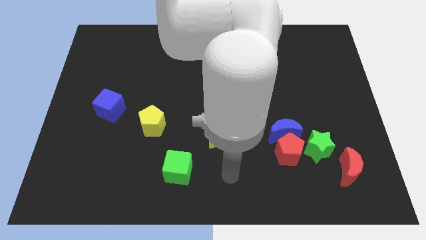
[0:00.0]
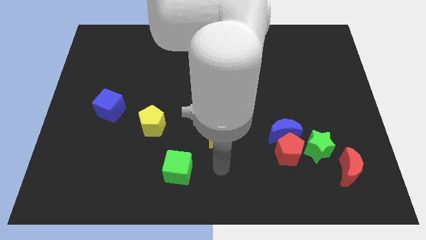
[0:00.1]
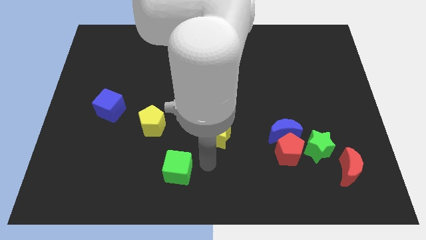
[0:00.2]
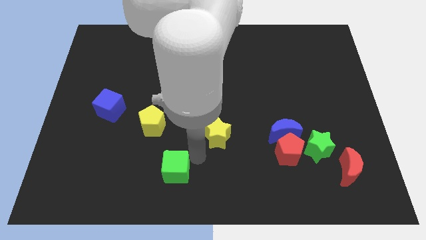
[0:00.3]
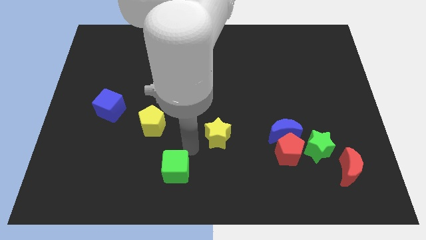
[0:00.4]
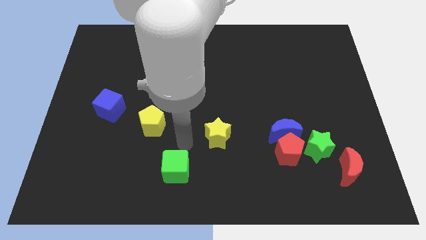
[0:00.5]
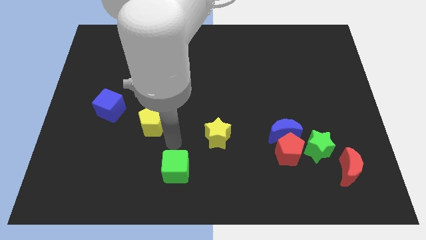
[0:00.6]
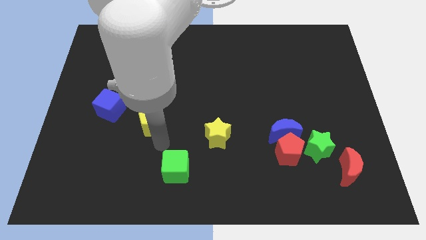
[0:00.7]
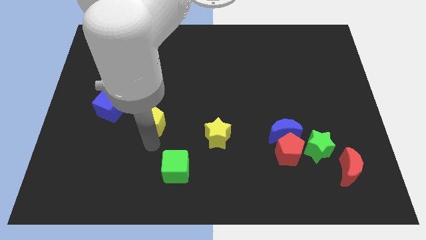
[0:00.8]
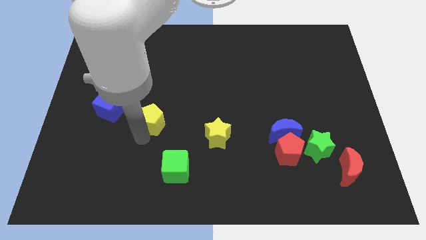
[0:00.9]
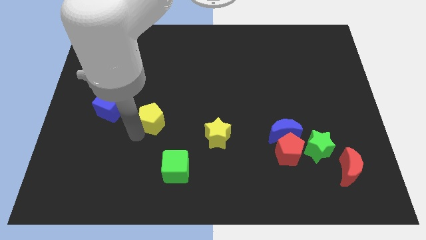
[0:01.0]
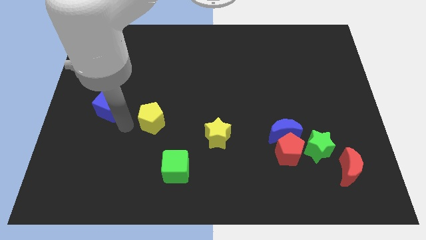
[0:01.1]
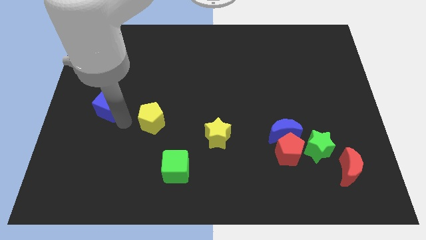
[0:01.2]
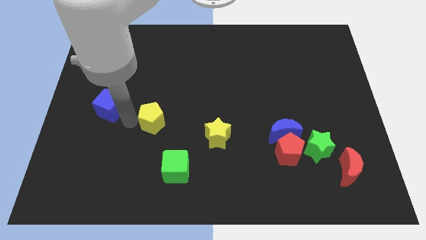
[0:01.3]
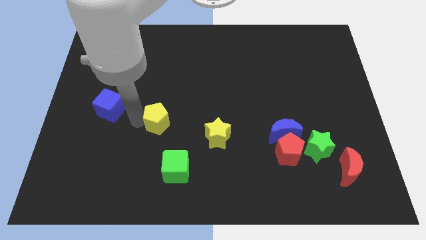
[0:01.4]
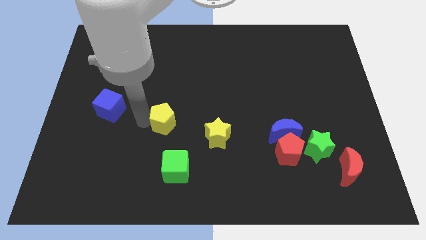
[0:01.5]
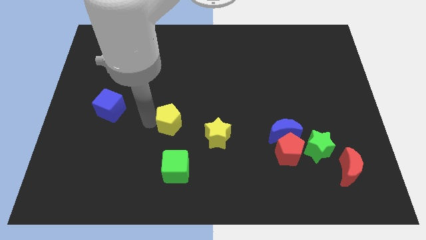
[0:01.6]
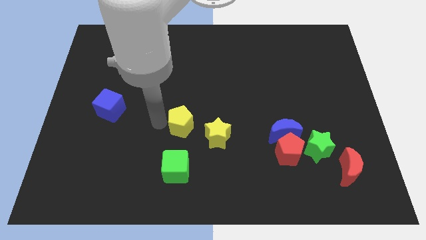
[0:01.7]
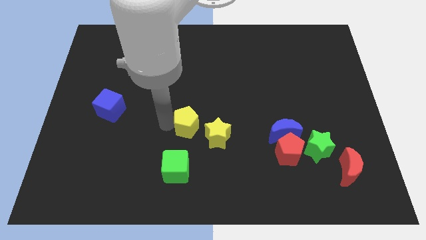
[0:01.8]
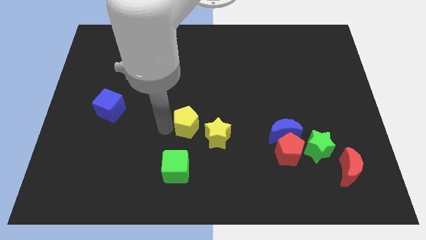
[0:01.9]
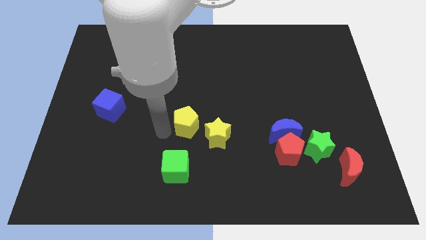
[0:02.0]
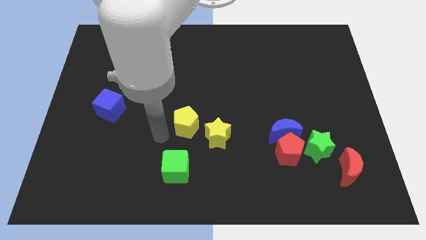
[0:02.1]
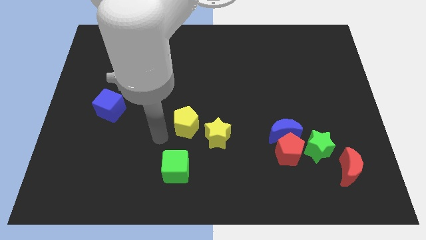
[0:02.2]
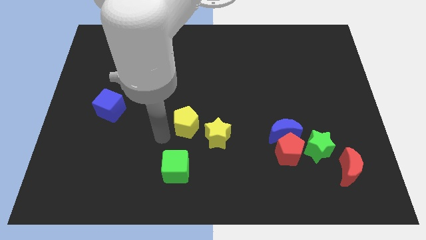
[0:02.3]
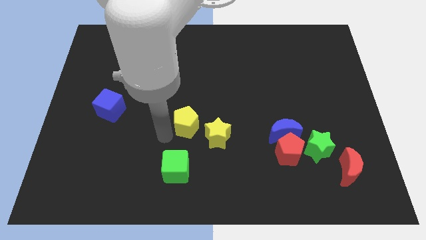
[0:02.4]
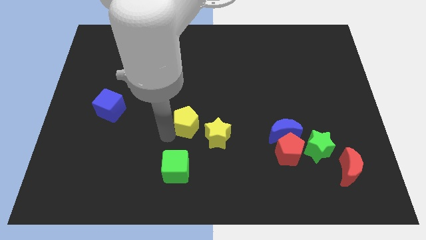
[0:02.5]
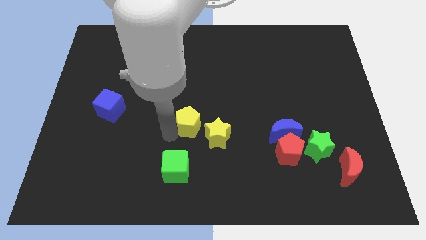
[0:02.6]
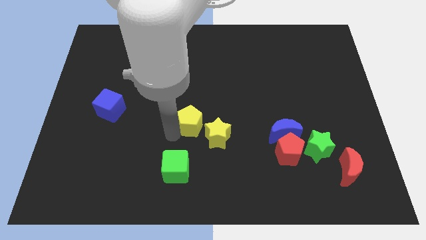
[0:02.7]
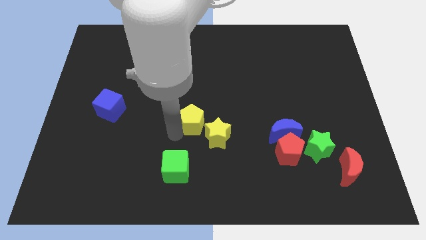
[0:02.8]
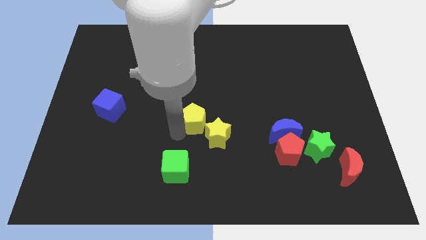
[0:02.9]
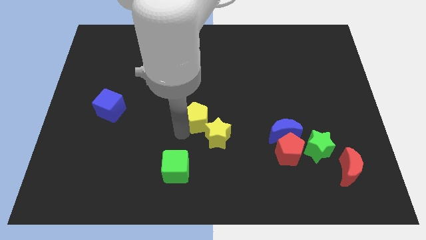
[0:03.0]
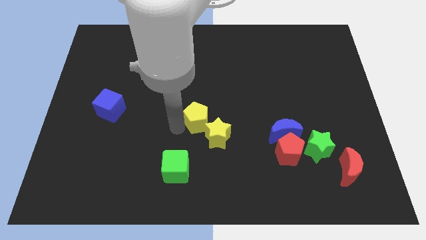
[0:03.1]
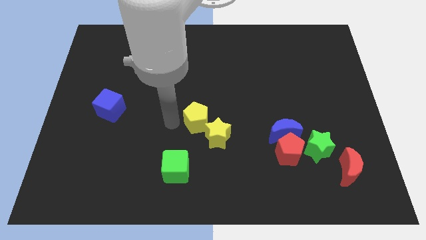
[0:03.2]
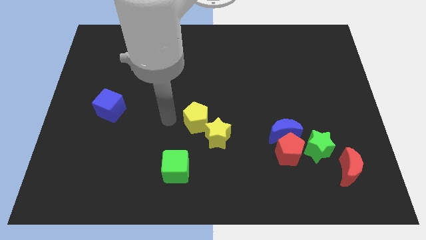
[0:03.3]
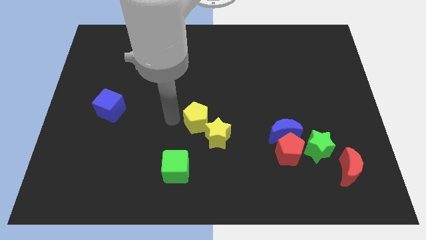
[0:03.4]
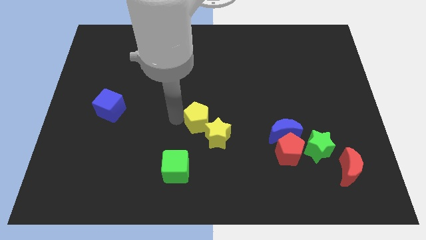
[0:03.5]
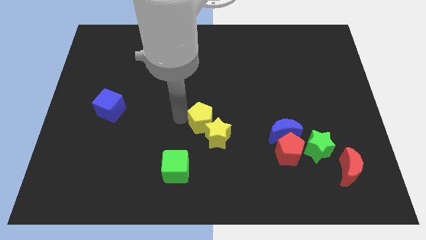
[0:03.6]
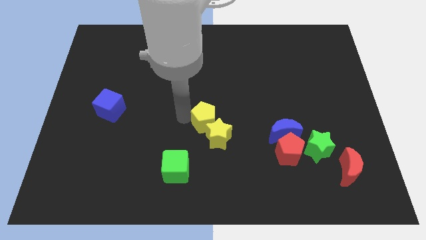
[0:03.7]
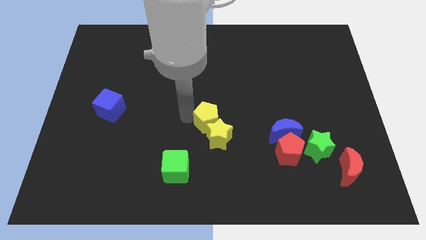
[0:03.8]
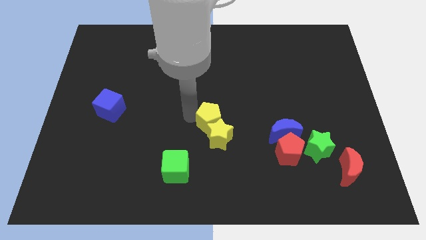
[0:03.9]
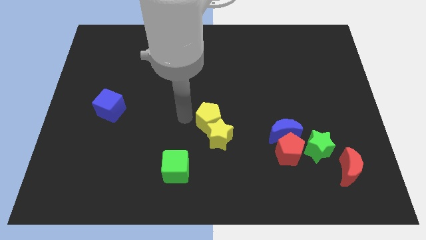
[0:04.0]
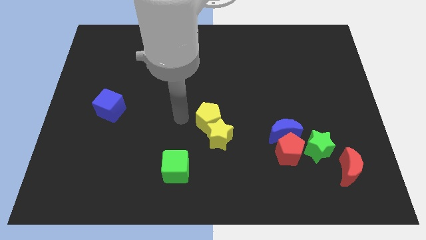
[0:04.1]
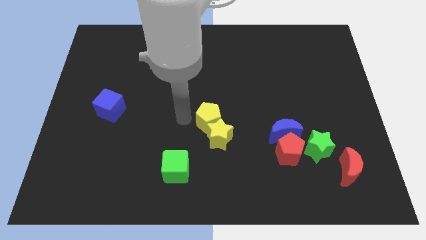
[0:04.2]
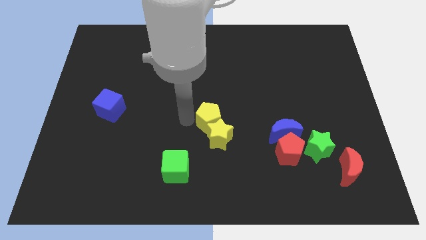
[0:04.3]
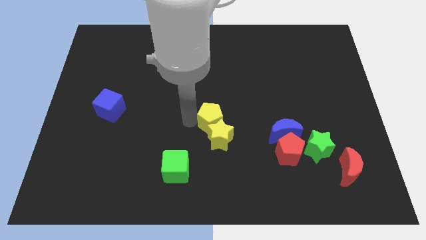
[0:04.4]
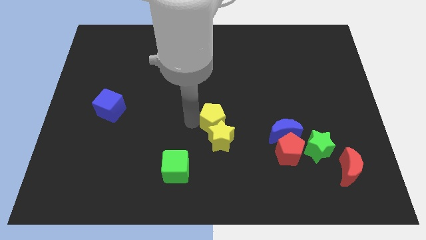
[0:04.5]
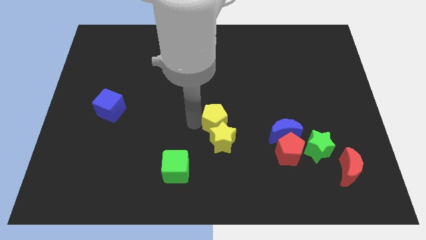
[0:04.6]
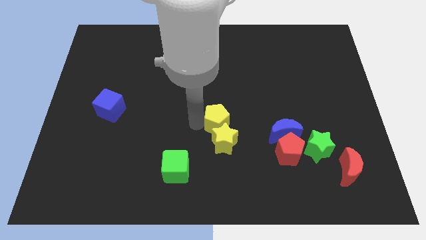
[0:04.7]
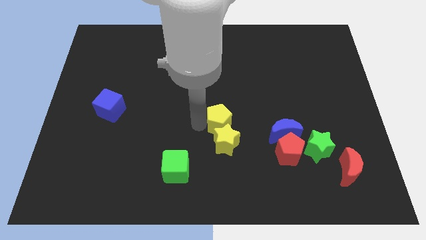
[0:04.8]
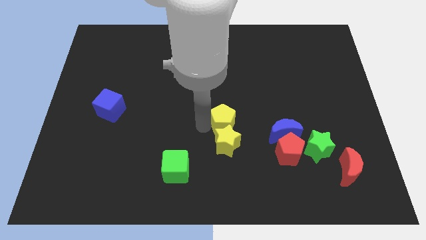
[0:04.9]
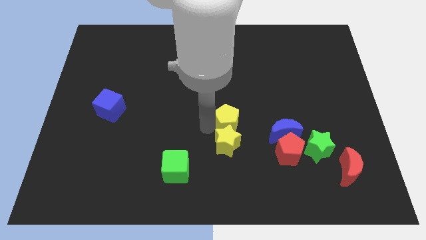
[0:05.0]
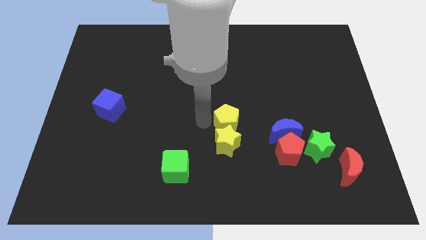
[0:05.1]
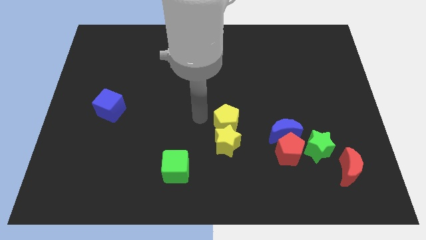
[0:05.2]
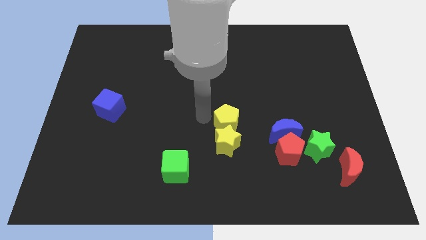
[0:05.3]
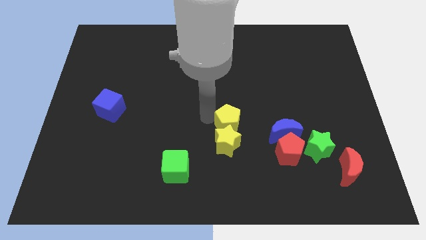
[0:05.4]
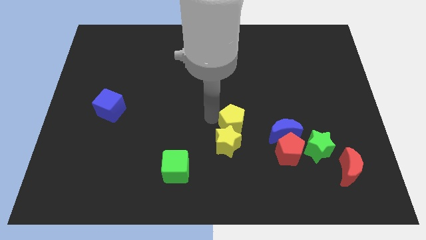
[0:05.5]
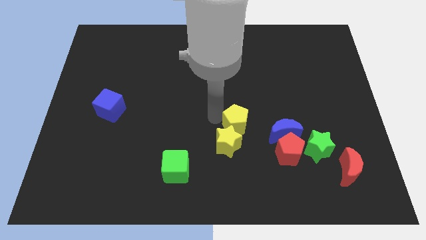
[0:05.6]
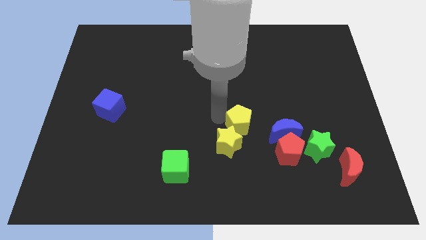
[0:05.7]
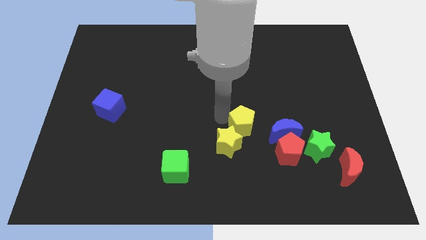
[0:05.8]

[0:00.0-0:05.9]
put the yellow pentagon to the top left side of the red pentagon

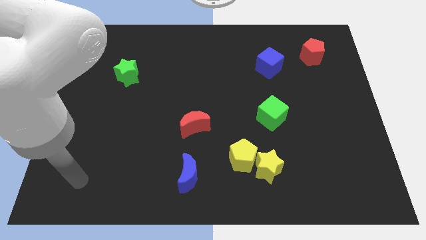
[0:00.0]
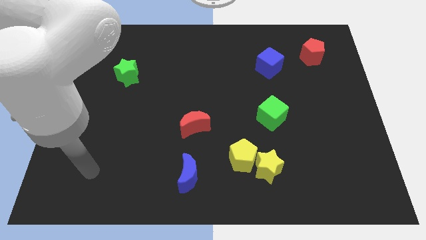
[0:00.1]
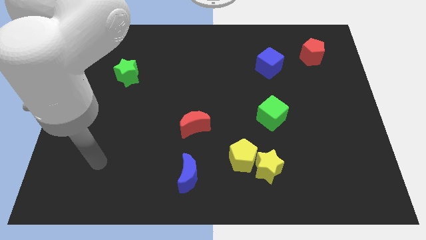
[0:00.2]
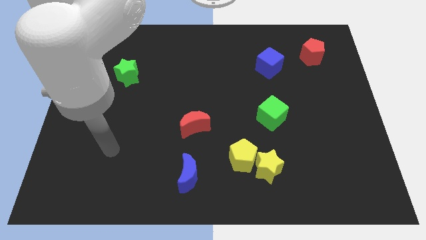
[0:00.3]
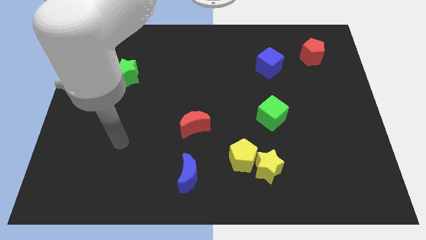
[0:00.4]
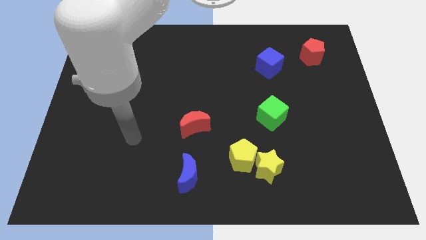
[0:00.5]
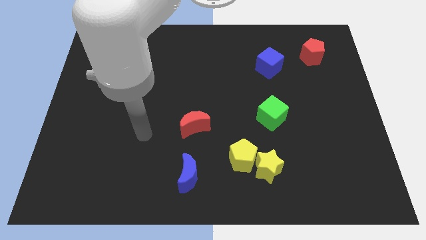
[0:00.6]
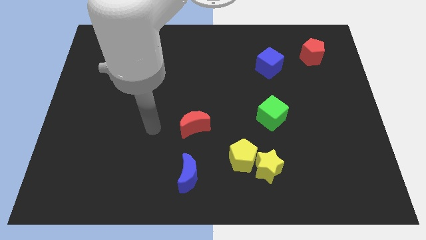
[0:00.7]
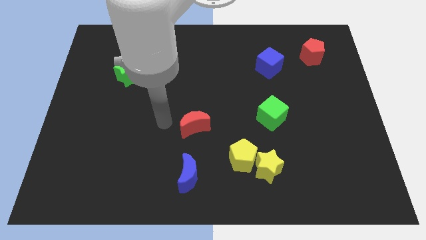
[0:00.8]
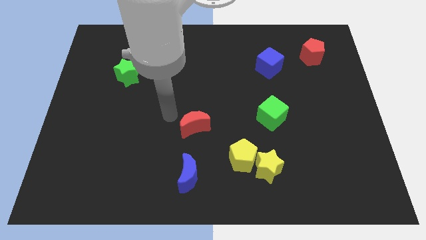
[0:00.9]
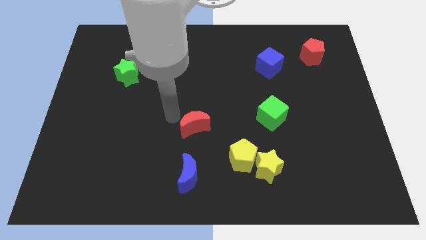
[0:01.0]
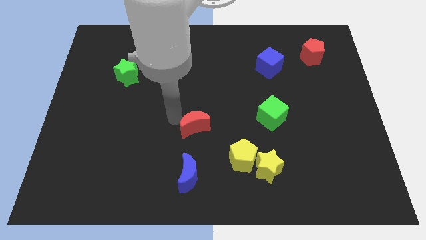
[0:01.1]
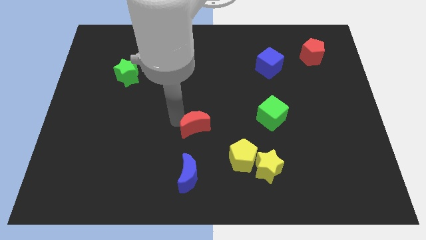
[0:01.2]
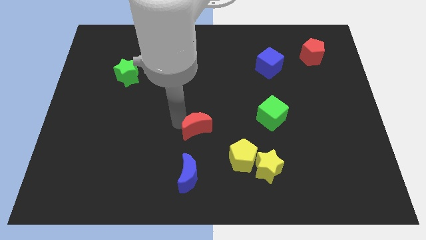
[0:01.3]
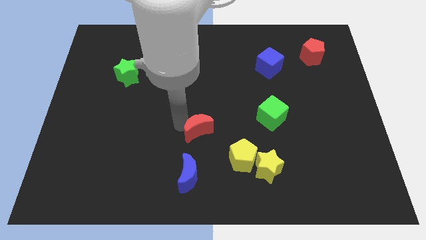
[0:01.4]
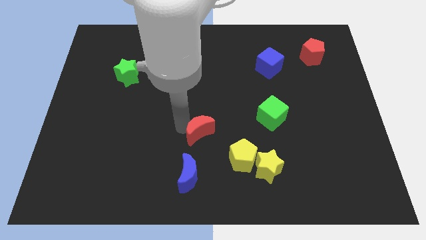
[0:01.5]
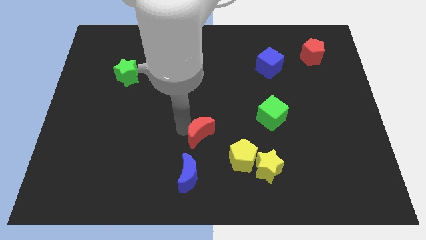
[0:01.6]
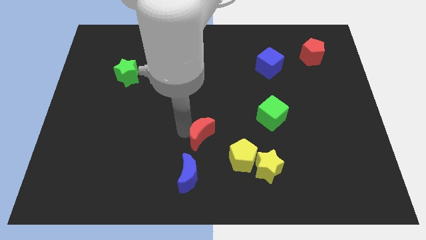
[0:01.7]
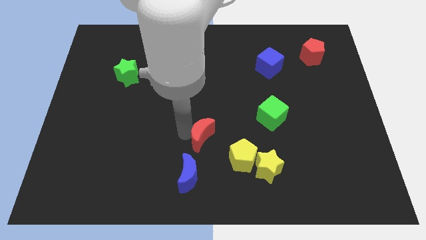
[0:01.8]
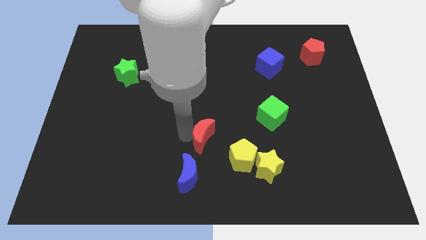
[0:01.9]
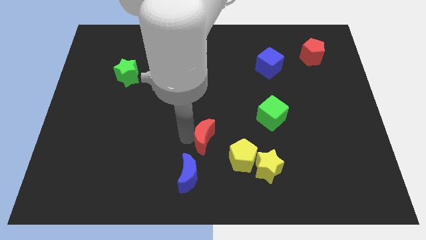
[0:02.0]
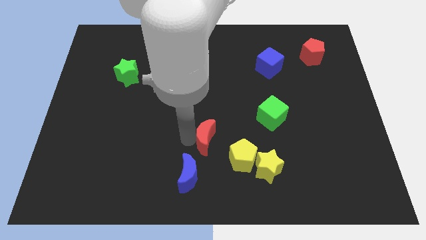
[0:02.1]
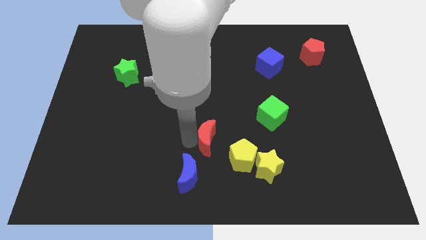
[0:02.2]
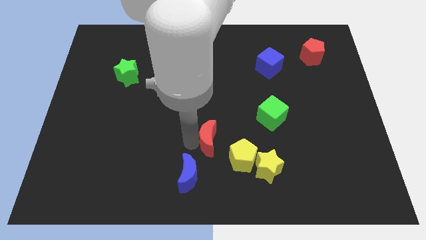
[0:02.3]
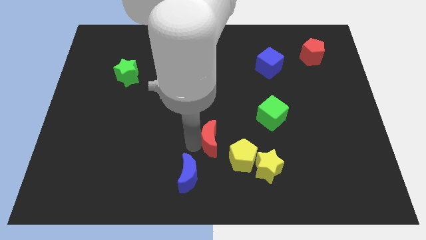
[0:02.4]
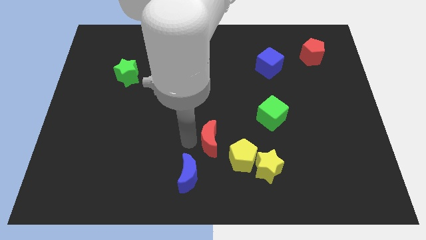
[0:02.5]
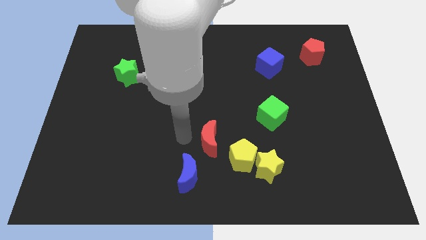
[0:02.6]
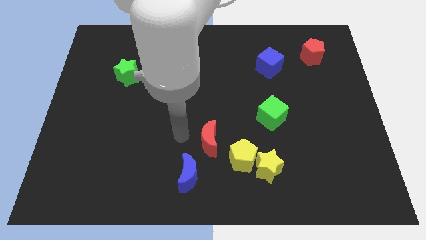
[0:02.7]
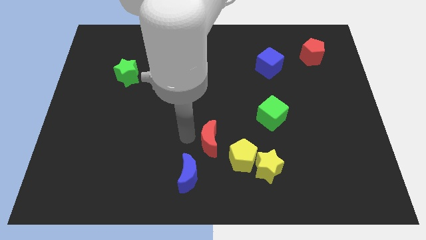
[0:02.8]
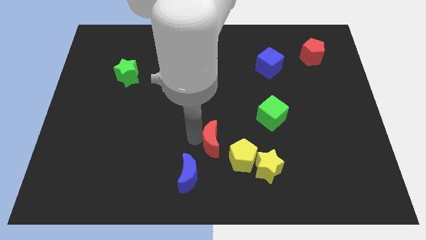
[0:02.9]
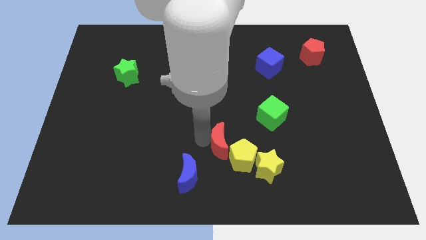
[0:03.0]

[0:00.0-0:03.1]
put the red moon to the top left side of the yellow star
